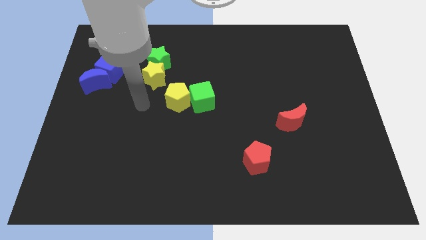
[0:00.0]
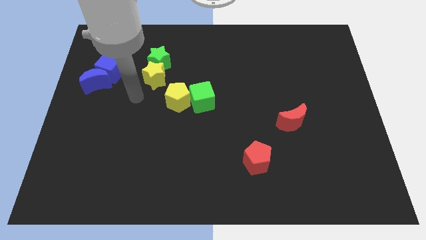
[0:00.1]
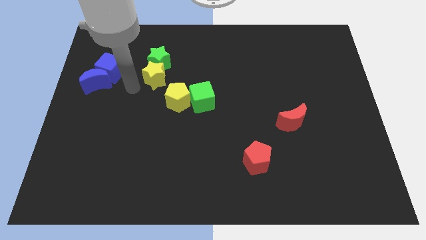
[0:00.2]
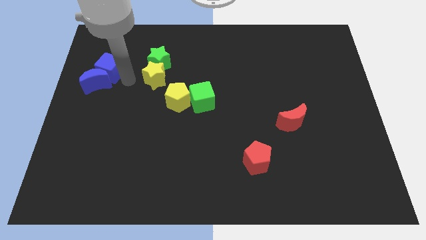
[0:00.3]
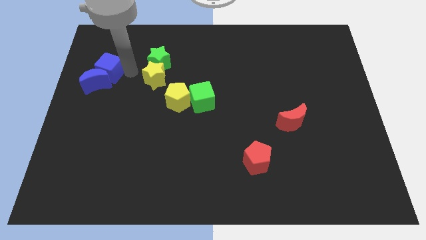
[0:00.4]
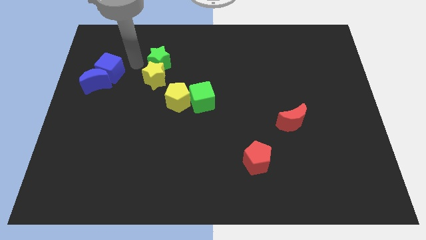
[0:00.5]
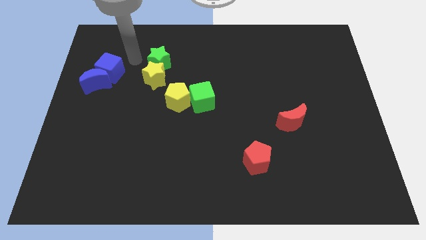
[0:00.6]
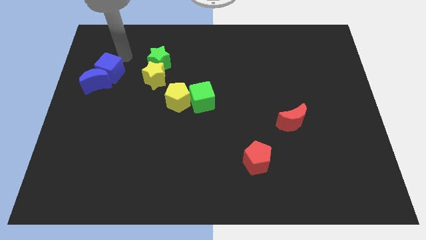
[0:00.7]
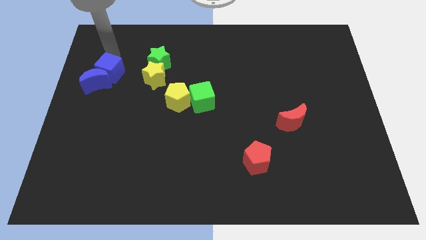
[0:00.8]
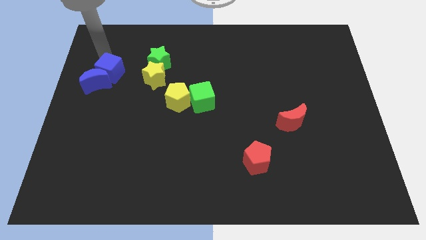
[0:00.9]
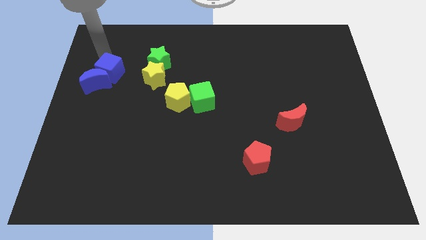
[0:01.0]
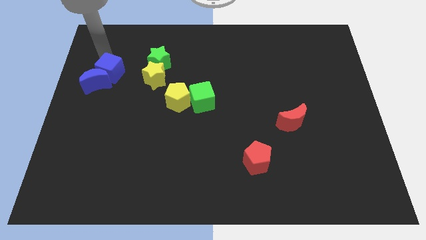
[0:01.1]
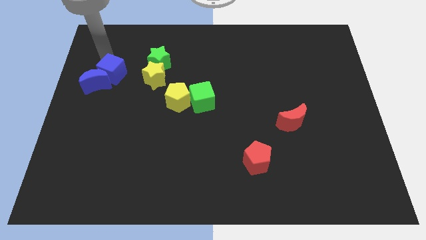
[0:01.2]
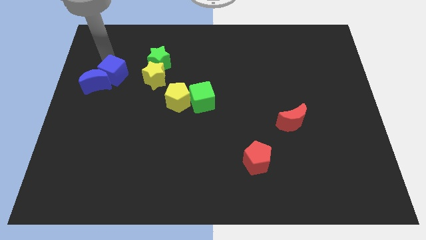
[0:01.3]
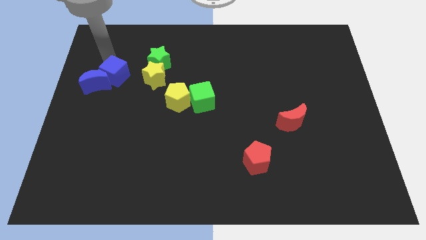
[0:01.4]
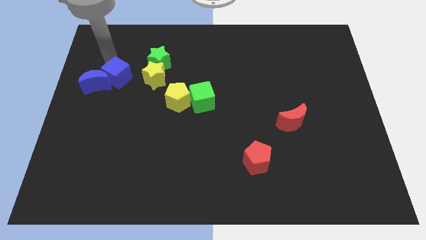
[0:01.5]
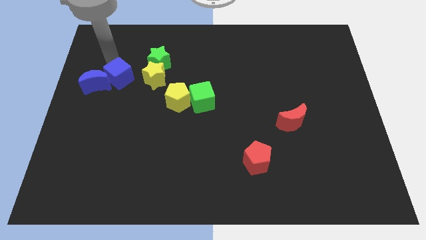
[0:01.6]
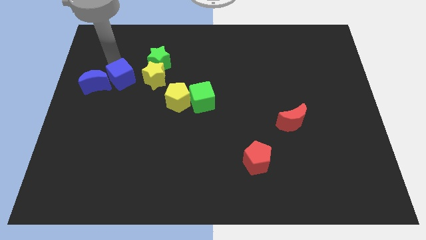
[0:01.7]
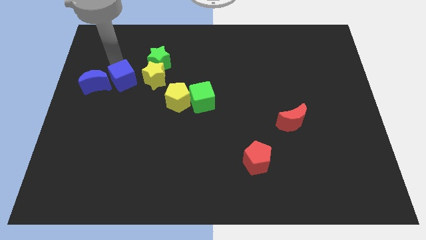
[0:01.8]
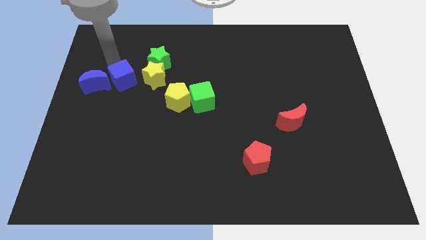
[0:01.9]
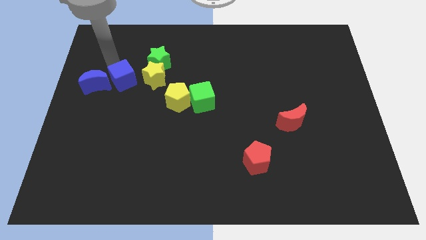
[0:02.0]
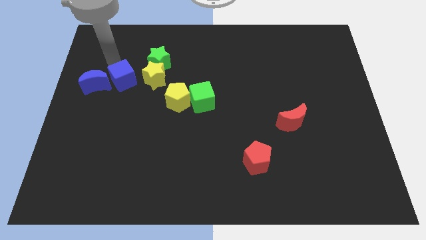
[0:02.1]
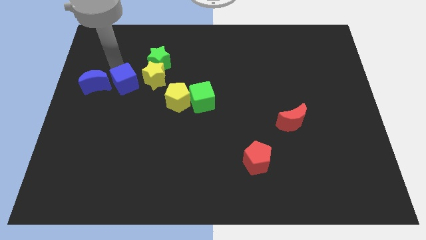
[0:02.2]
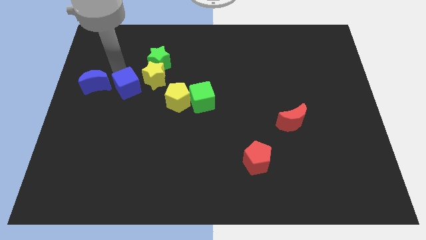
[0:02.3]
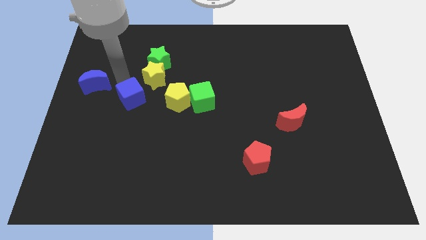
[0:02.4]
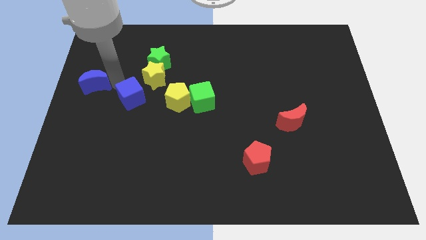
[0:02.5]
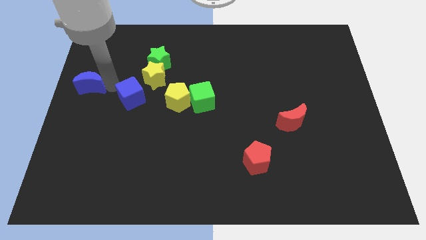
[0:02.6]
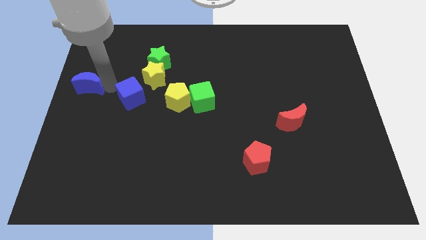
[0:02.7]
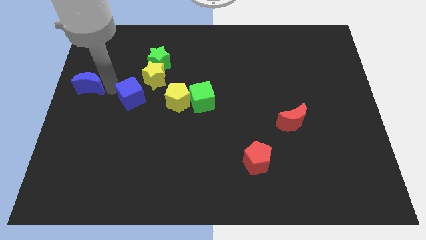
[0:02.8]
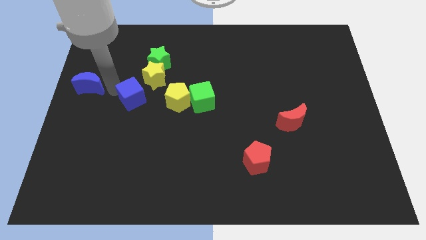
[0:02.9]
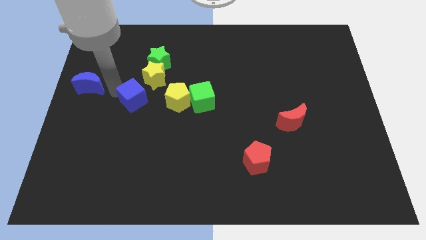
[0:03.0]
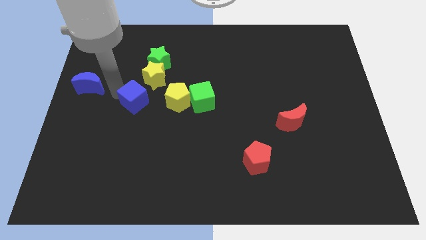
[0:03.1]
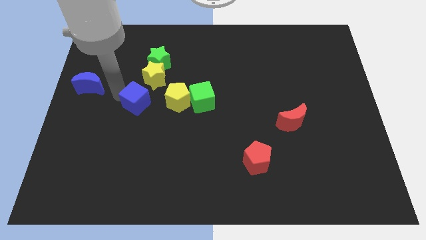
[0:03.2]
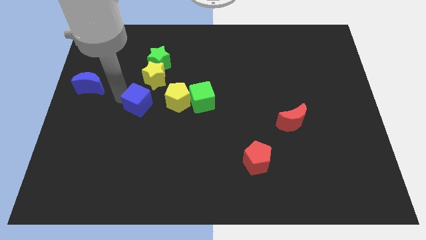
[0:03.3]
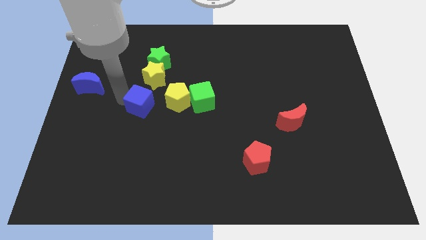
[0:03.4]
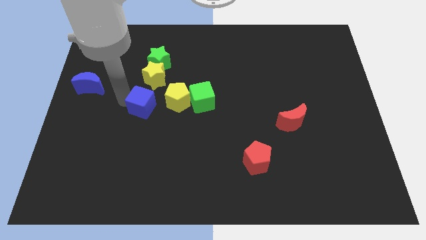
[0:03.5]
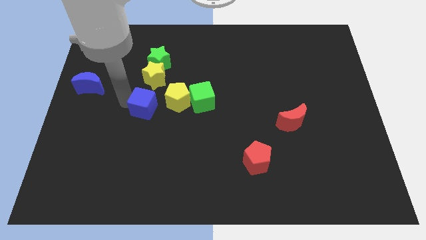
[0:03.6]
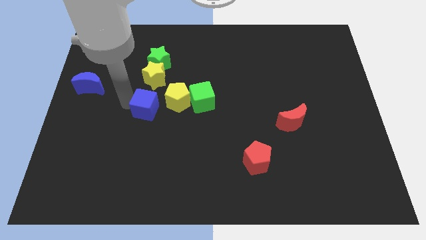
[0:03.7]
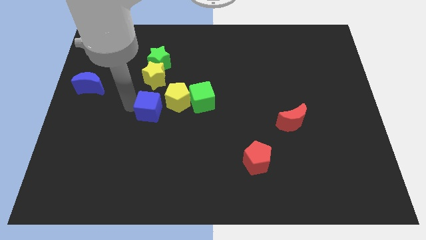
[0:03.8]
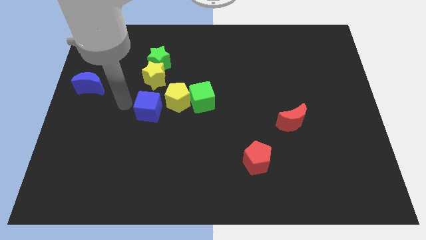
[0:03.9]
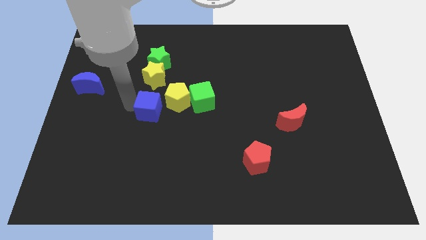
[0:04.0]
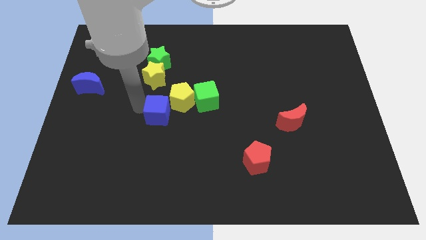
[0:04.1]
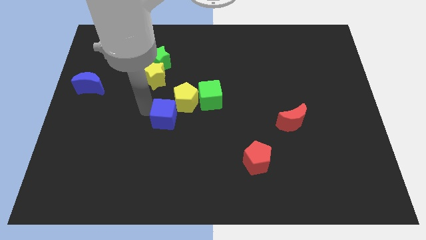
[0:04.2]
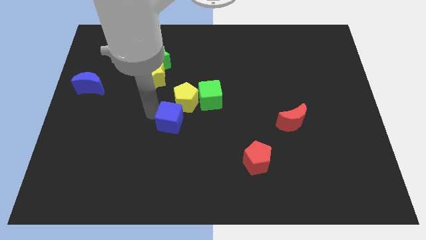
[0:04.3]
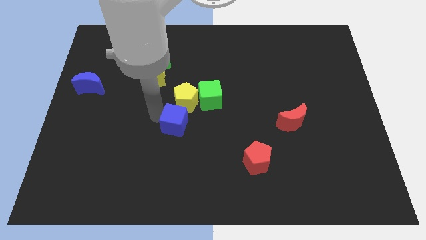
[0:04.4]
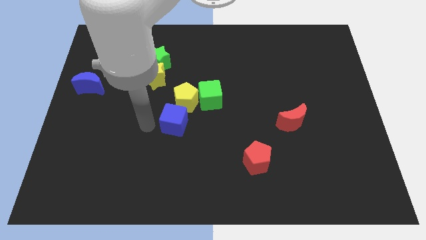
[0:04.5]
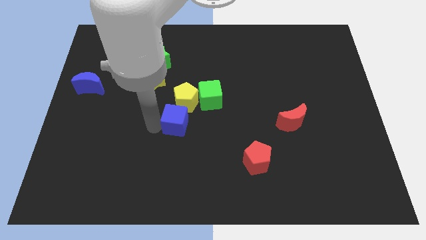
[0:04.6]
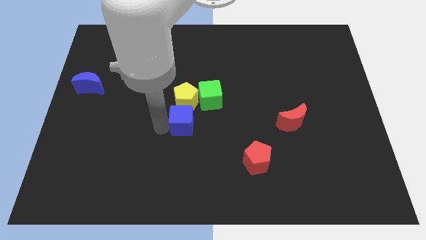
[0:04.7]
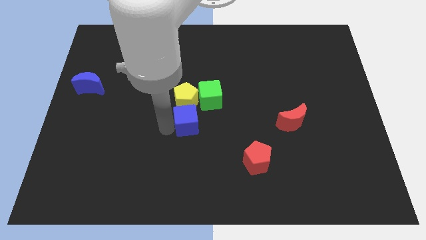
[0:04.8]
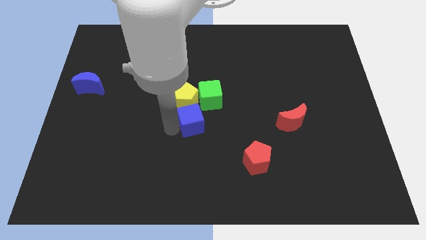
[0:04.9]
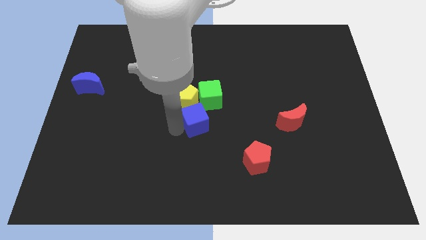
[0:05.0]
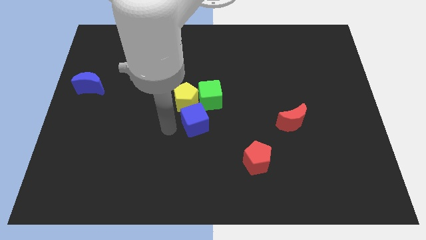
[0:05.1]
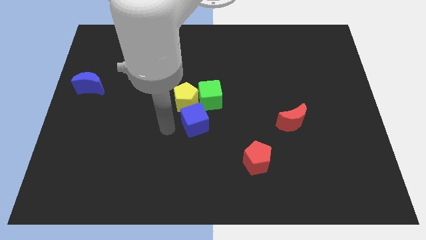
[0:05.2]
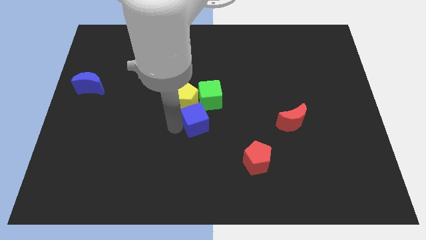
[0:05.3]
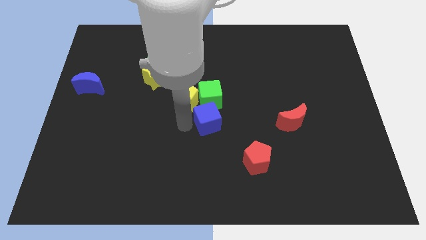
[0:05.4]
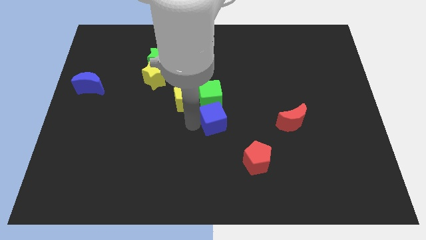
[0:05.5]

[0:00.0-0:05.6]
put the blue cube to the bottom right of the green cube

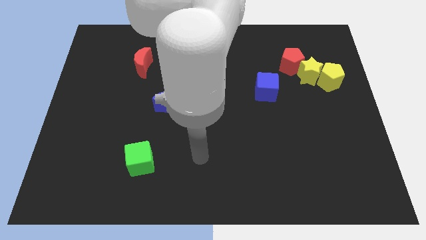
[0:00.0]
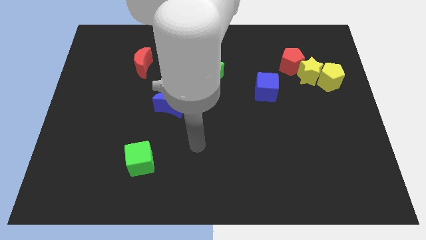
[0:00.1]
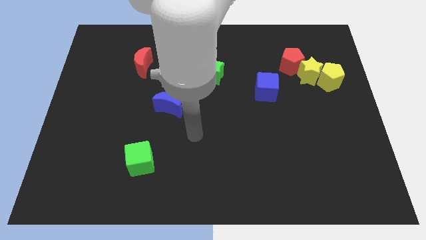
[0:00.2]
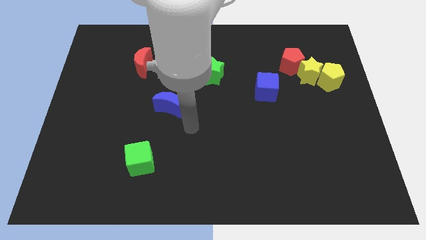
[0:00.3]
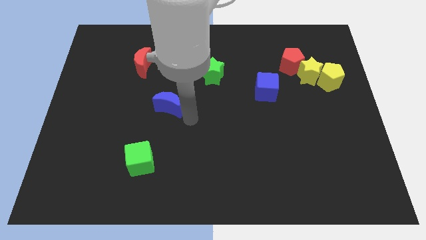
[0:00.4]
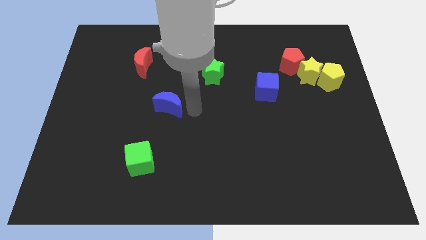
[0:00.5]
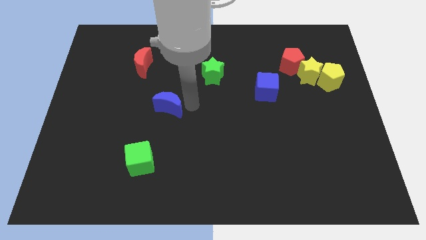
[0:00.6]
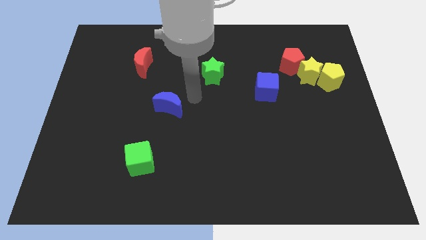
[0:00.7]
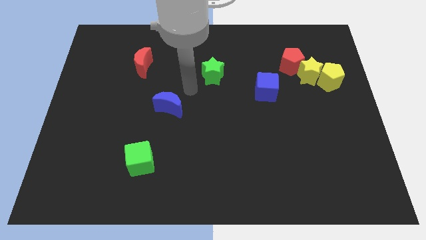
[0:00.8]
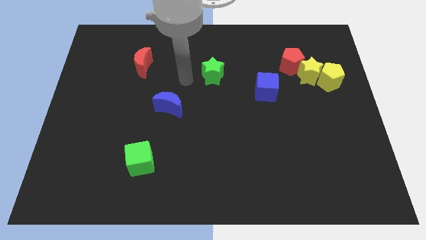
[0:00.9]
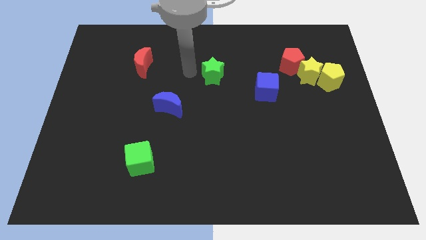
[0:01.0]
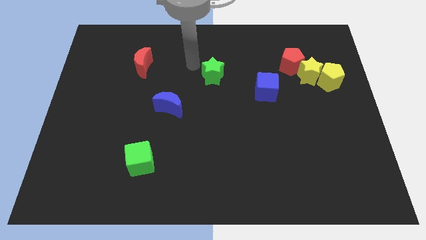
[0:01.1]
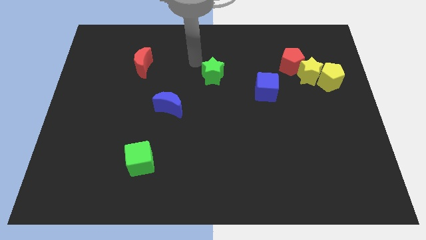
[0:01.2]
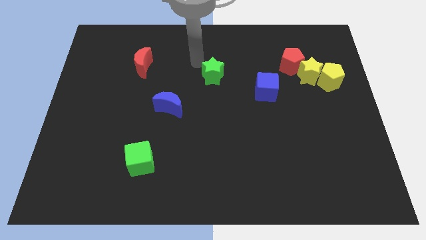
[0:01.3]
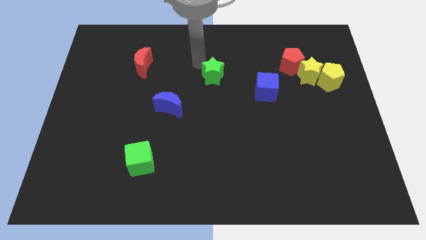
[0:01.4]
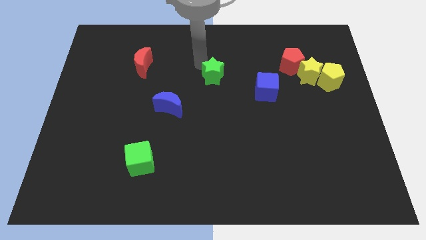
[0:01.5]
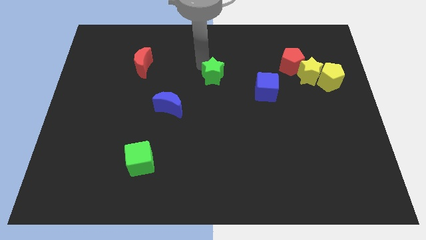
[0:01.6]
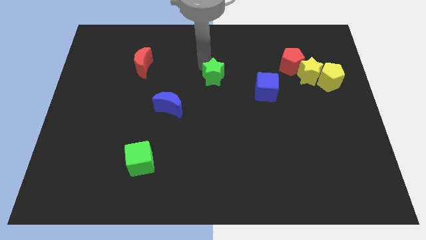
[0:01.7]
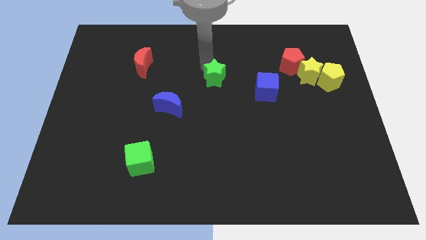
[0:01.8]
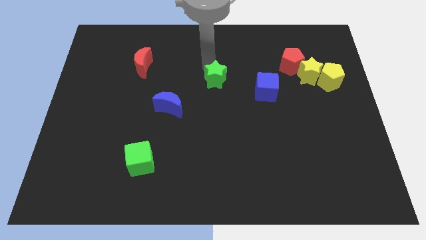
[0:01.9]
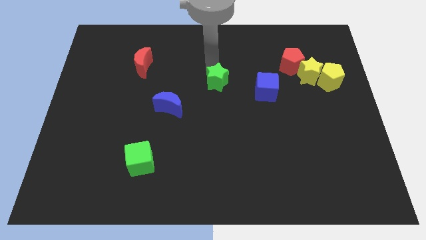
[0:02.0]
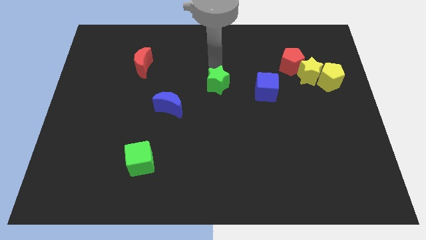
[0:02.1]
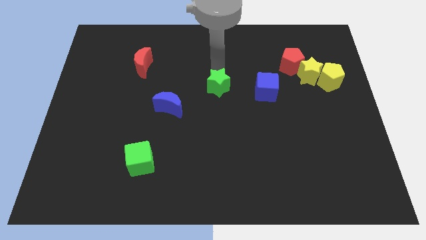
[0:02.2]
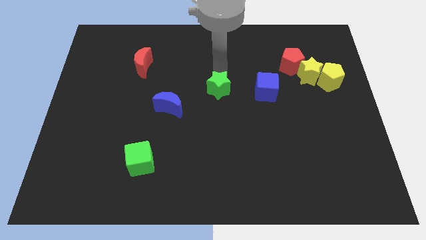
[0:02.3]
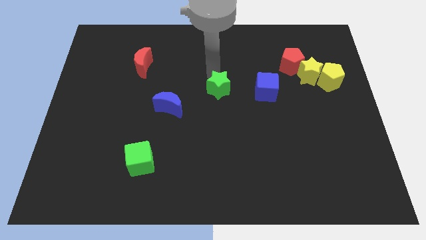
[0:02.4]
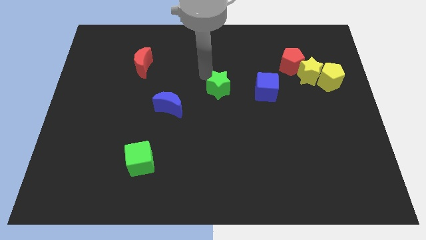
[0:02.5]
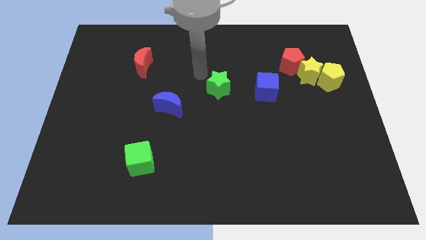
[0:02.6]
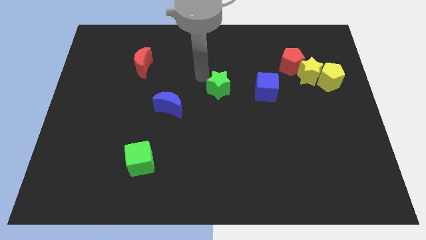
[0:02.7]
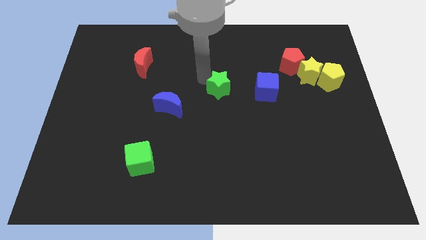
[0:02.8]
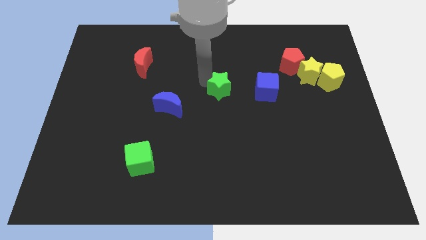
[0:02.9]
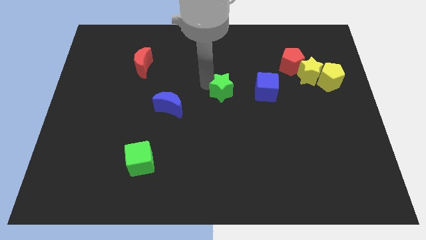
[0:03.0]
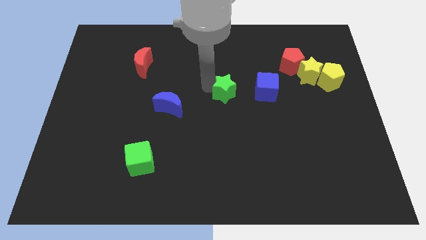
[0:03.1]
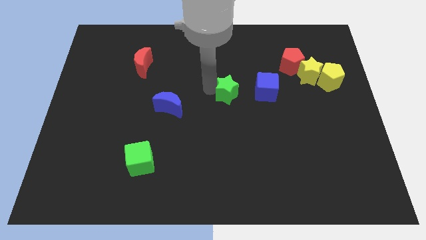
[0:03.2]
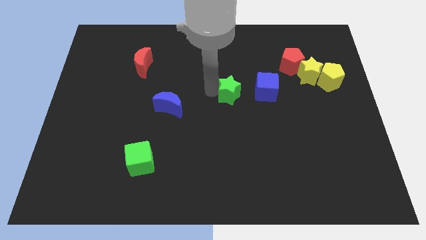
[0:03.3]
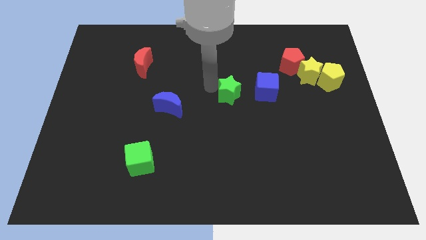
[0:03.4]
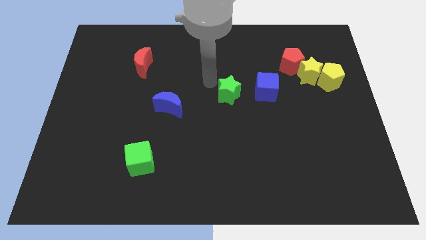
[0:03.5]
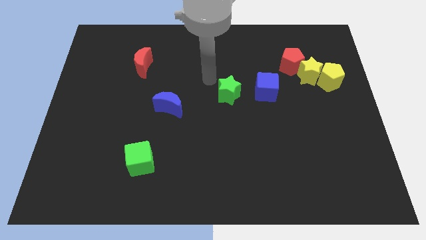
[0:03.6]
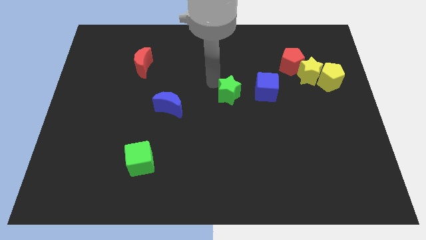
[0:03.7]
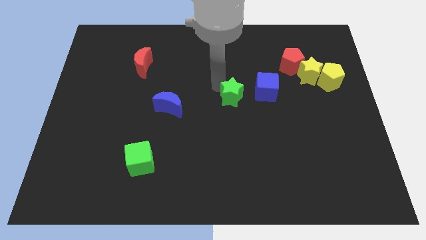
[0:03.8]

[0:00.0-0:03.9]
move the green star to the bottom left of the blue cube
